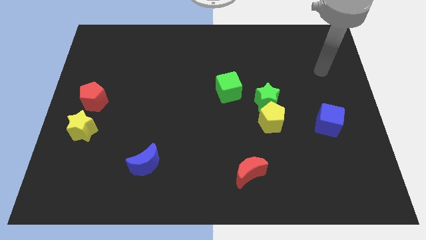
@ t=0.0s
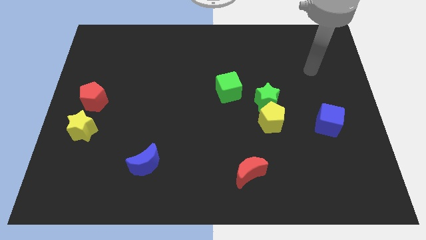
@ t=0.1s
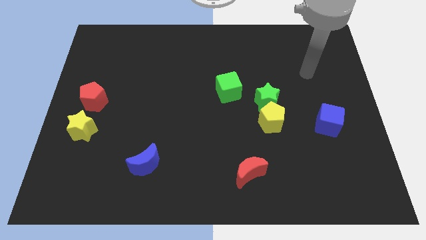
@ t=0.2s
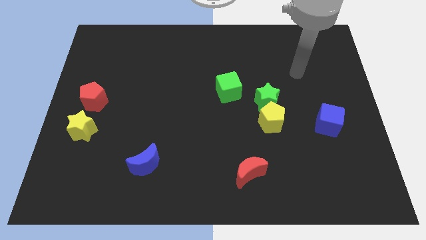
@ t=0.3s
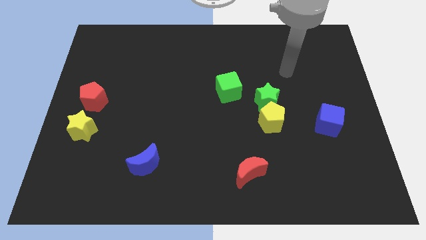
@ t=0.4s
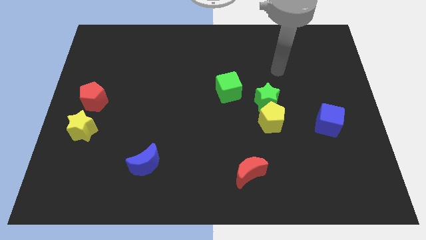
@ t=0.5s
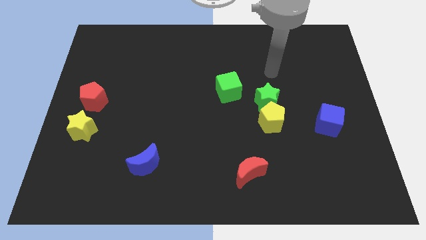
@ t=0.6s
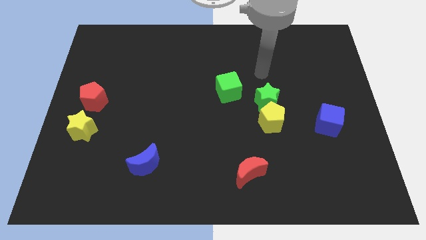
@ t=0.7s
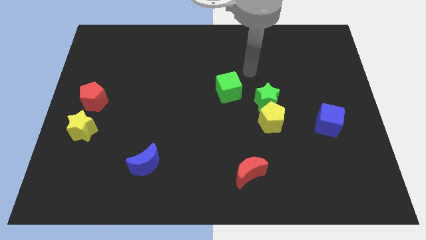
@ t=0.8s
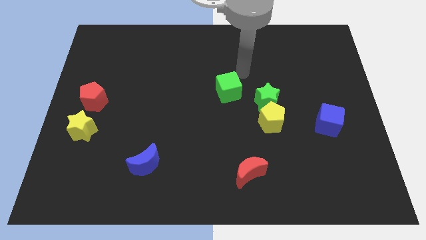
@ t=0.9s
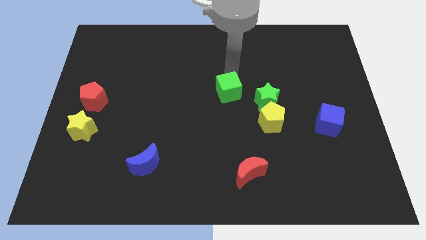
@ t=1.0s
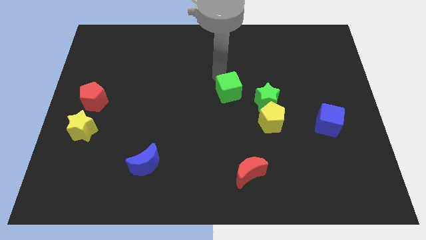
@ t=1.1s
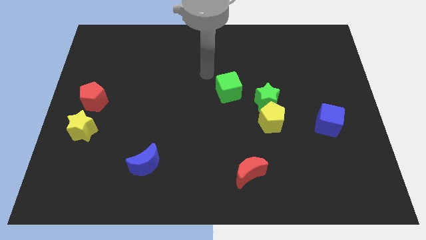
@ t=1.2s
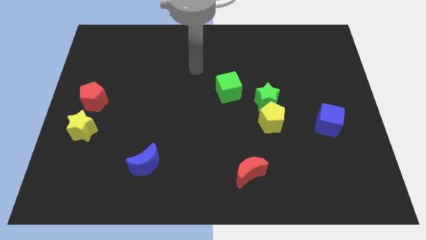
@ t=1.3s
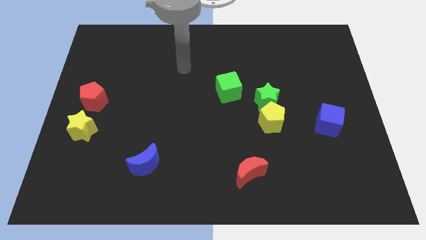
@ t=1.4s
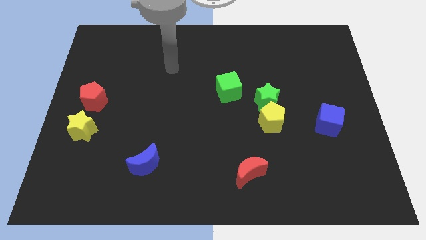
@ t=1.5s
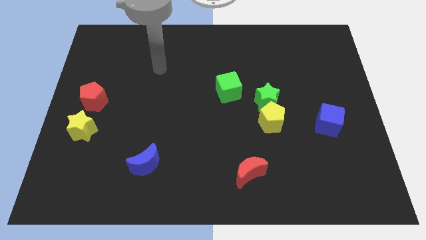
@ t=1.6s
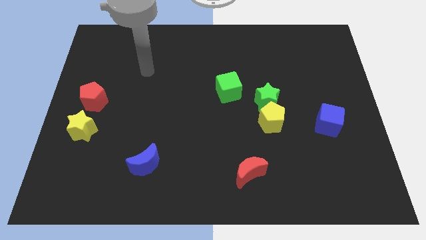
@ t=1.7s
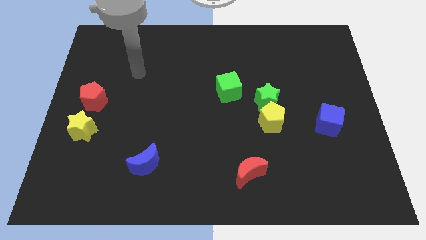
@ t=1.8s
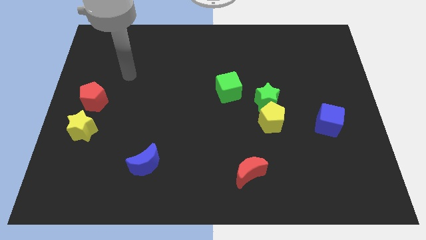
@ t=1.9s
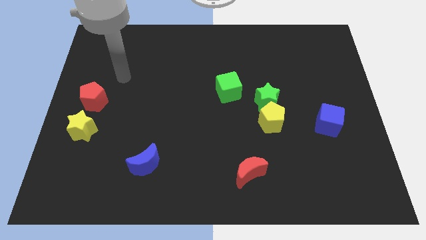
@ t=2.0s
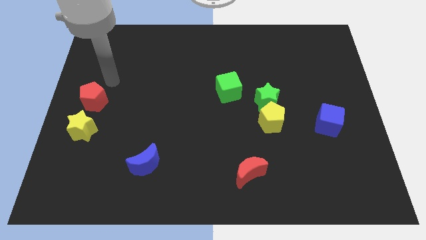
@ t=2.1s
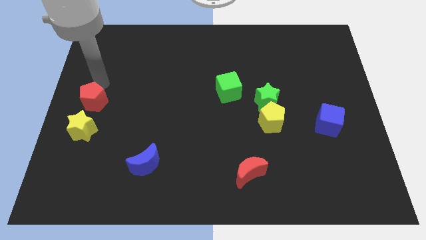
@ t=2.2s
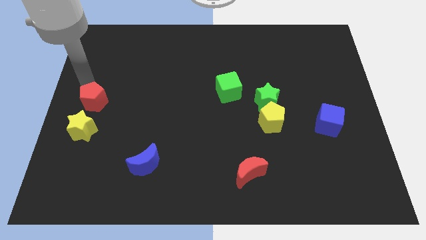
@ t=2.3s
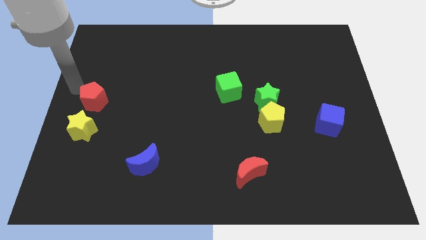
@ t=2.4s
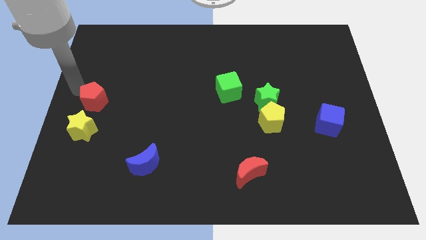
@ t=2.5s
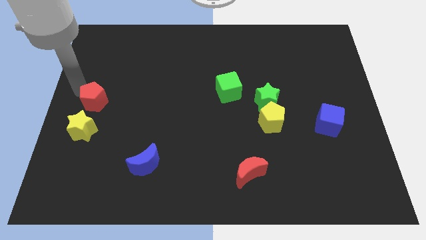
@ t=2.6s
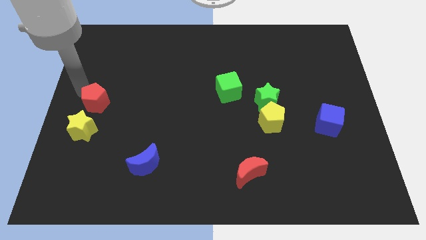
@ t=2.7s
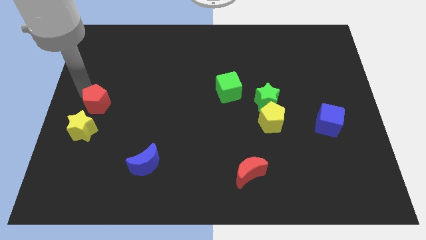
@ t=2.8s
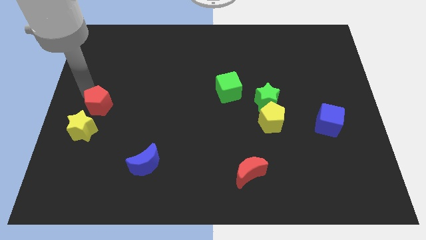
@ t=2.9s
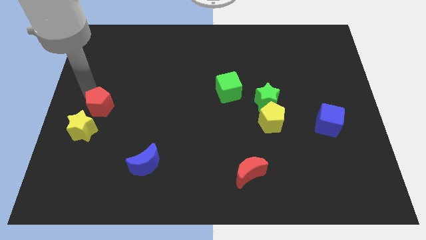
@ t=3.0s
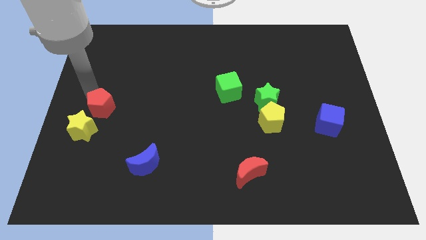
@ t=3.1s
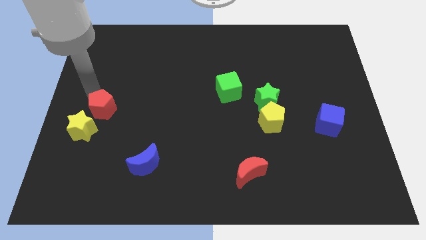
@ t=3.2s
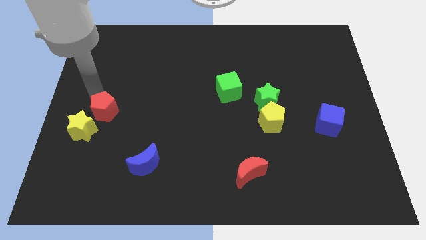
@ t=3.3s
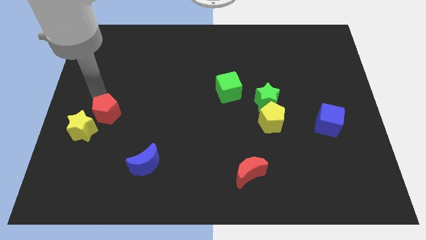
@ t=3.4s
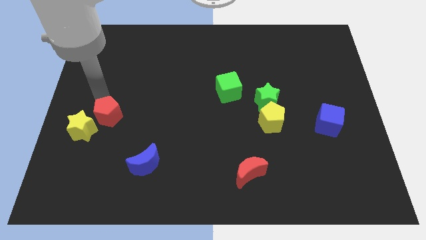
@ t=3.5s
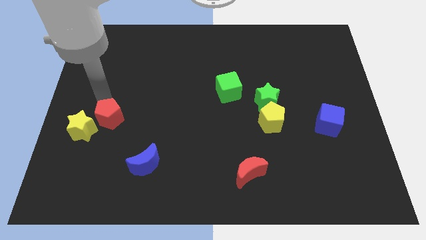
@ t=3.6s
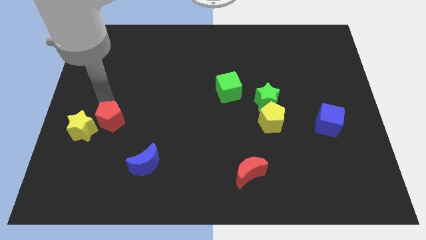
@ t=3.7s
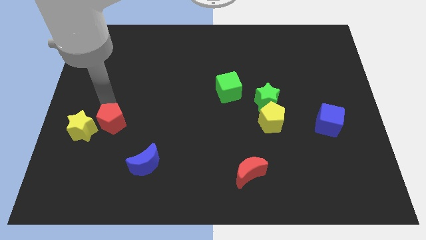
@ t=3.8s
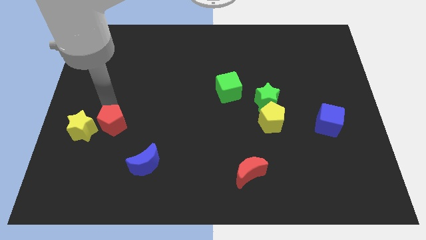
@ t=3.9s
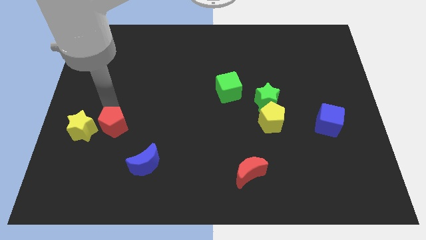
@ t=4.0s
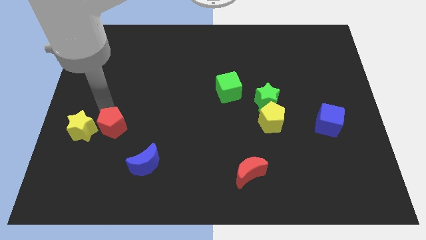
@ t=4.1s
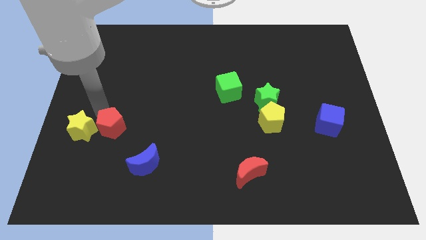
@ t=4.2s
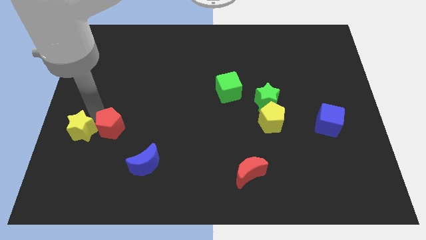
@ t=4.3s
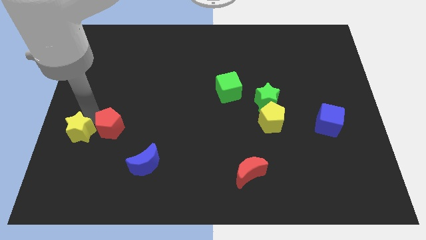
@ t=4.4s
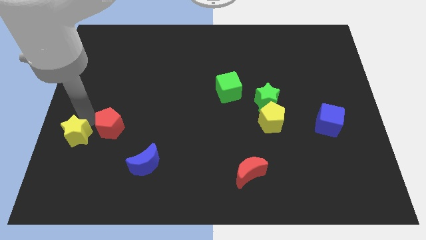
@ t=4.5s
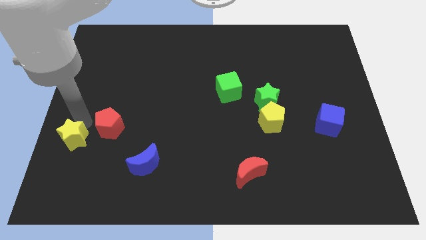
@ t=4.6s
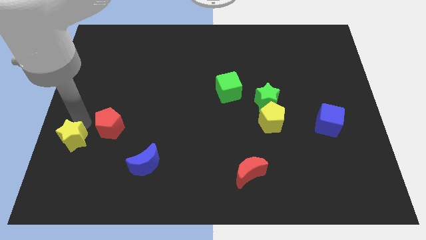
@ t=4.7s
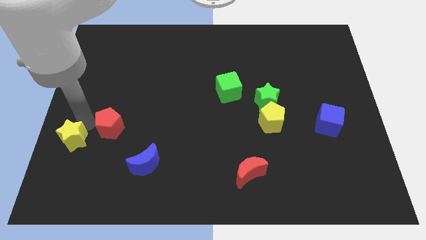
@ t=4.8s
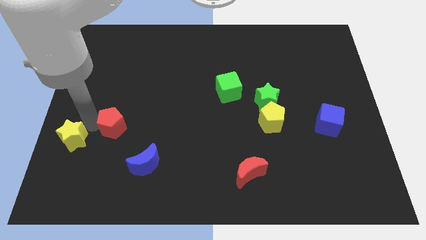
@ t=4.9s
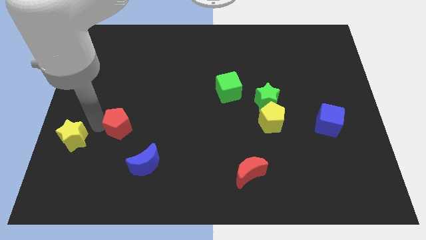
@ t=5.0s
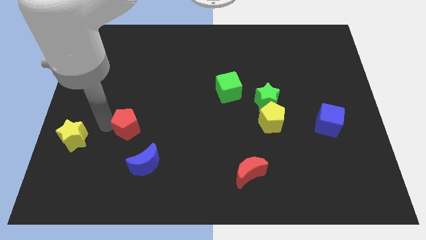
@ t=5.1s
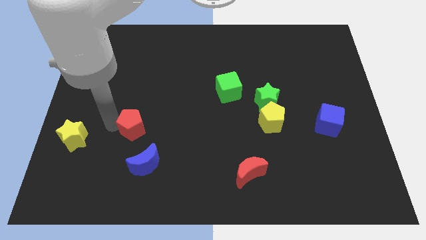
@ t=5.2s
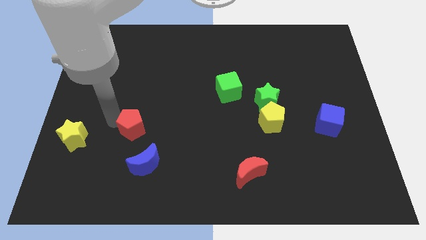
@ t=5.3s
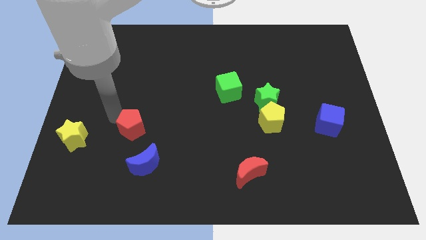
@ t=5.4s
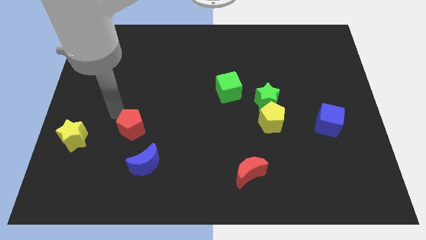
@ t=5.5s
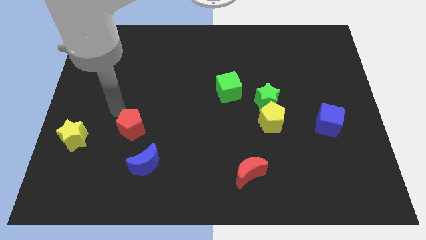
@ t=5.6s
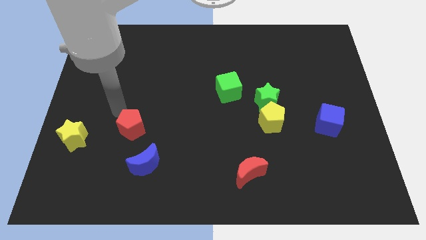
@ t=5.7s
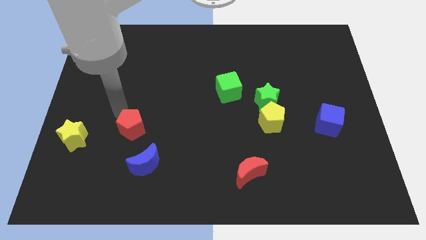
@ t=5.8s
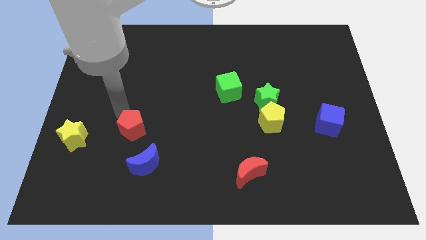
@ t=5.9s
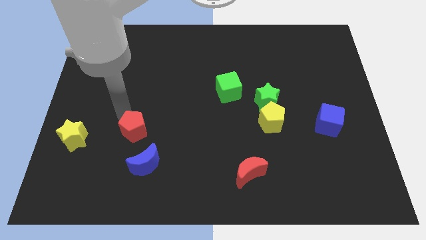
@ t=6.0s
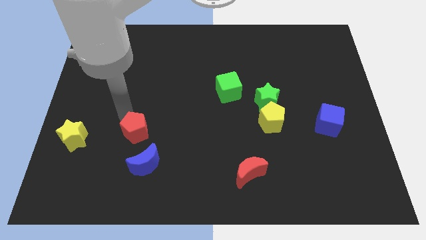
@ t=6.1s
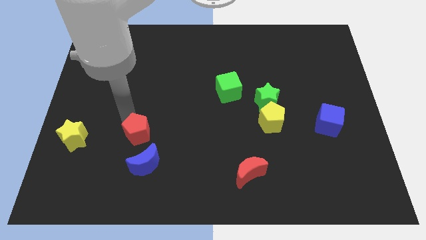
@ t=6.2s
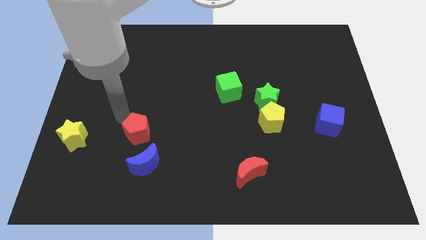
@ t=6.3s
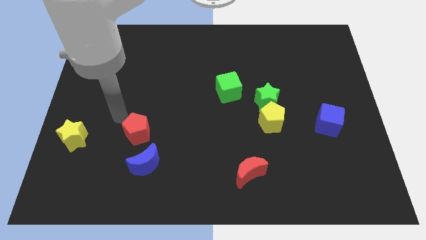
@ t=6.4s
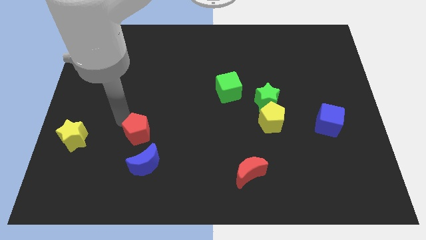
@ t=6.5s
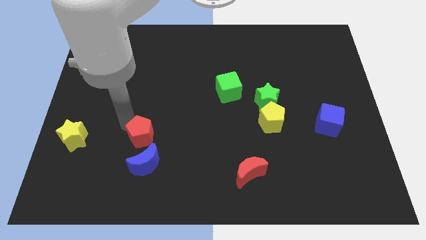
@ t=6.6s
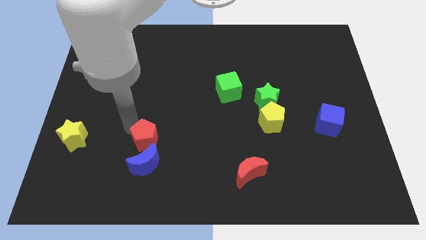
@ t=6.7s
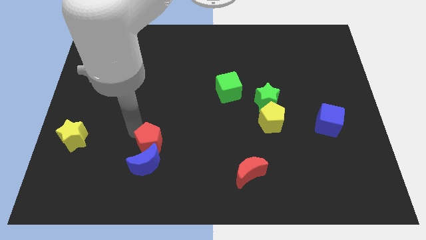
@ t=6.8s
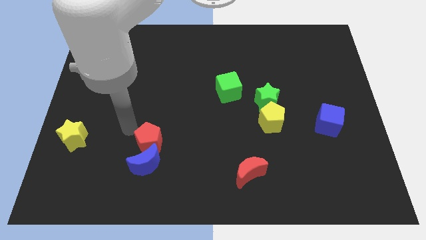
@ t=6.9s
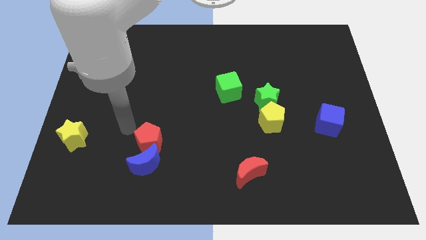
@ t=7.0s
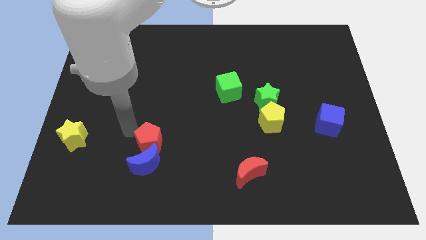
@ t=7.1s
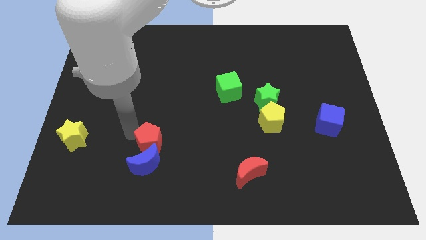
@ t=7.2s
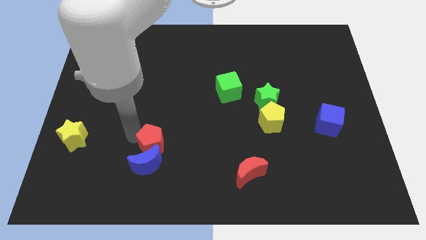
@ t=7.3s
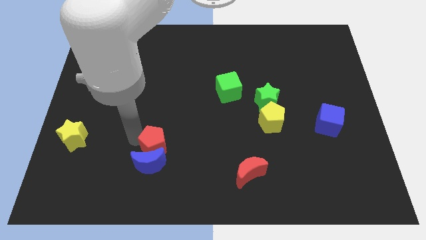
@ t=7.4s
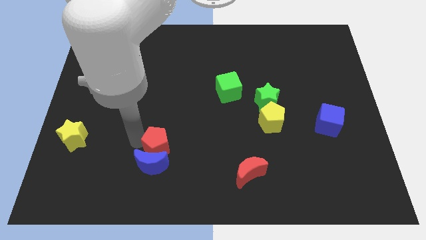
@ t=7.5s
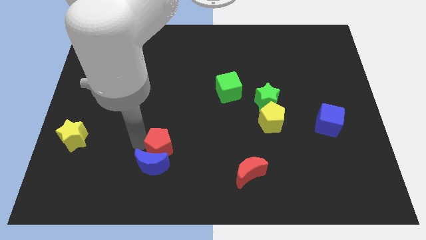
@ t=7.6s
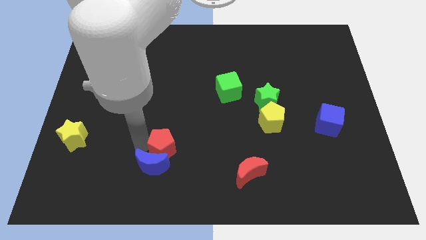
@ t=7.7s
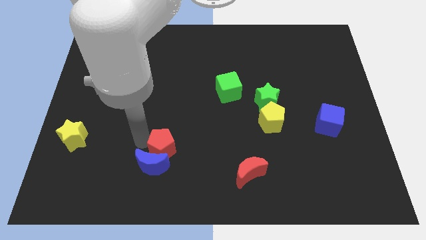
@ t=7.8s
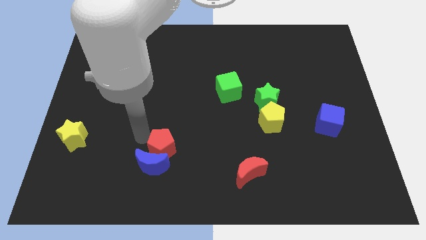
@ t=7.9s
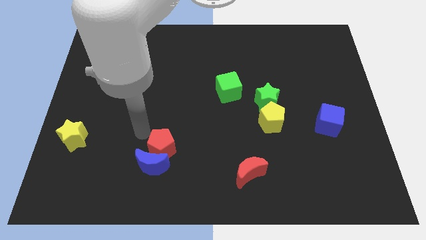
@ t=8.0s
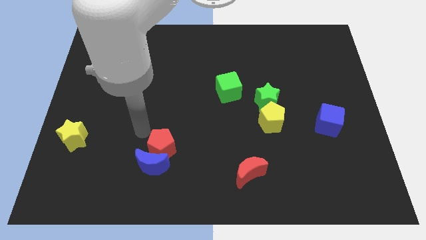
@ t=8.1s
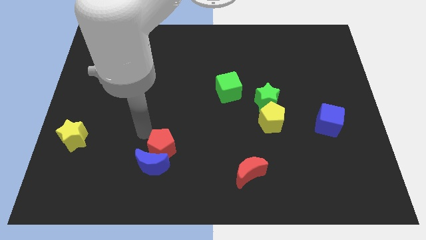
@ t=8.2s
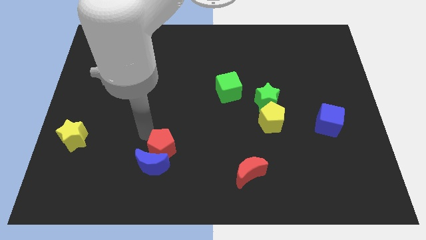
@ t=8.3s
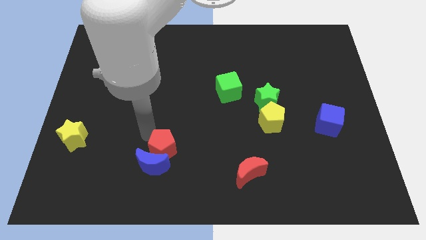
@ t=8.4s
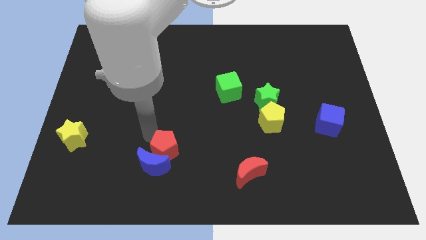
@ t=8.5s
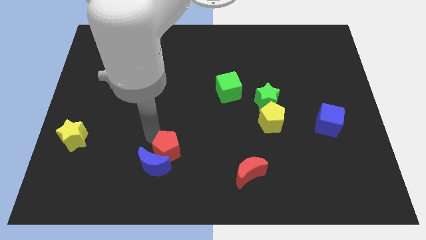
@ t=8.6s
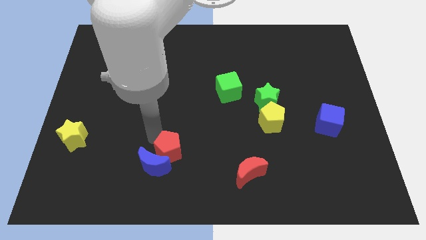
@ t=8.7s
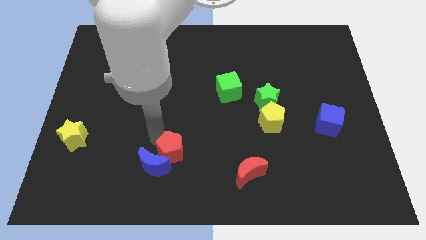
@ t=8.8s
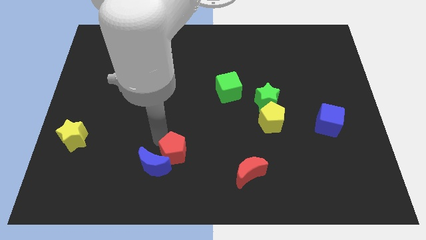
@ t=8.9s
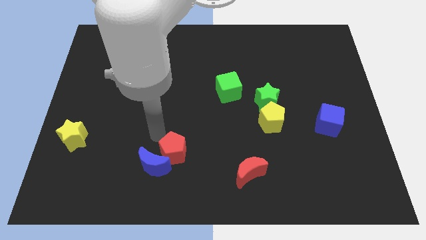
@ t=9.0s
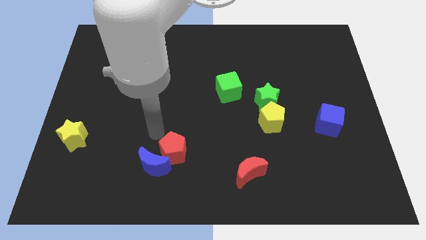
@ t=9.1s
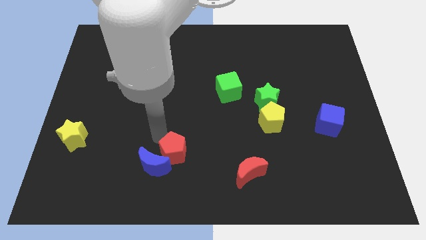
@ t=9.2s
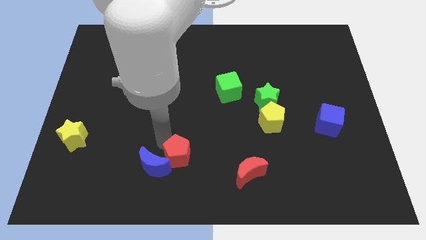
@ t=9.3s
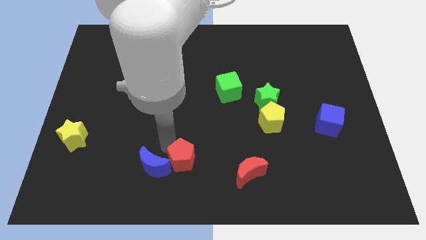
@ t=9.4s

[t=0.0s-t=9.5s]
put the red pentagon to the bottom
